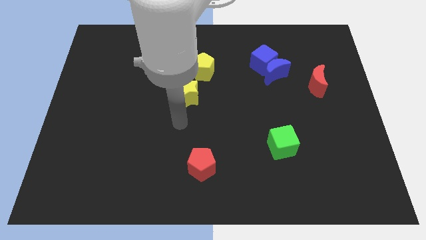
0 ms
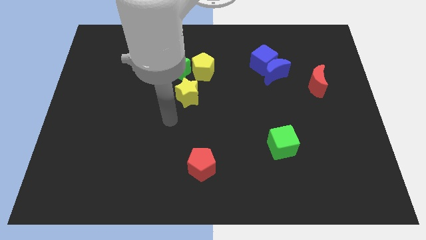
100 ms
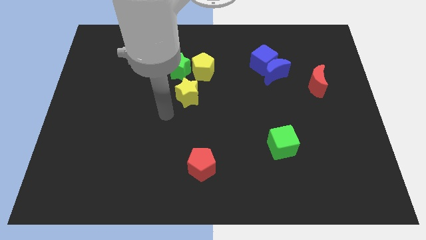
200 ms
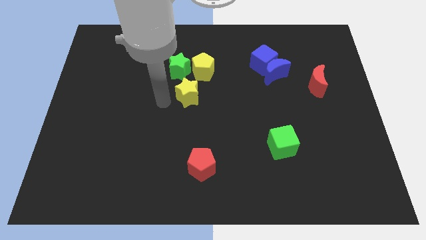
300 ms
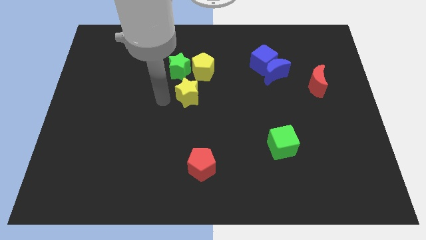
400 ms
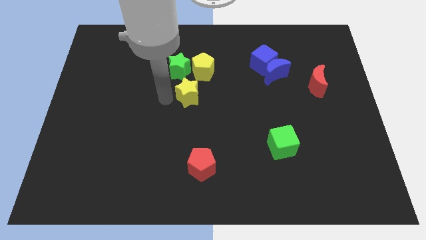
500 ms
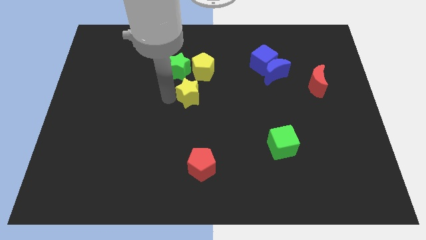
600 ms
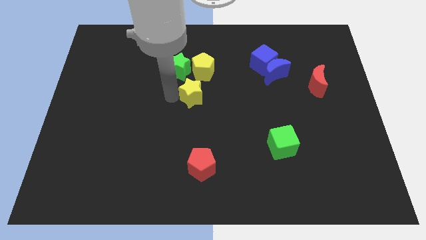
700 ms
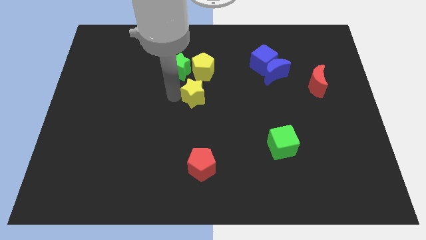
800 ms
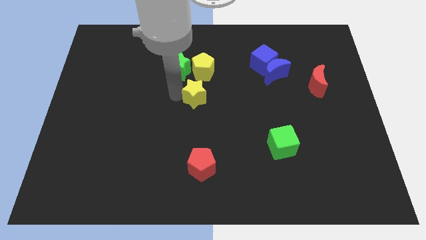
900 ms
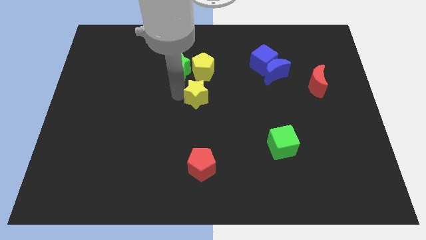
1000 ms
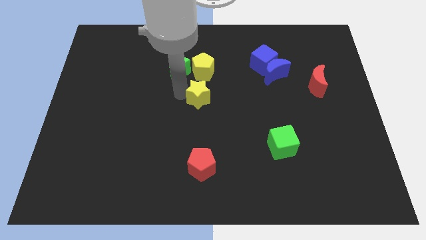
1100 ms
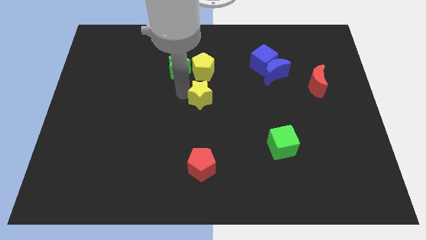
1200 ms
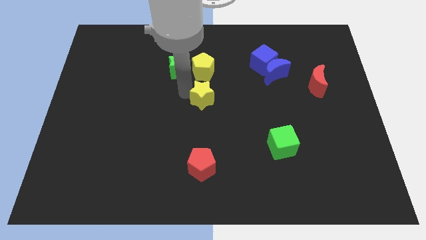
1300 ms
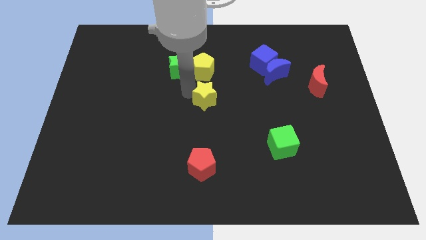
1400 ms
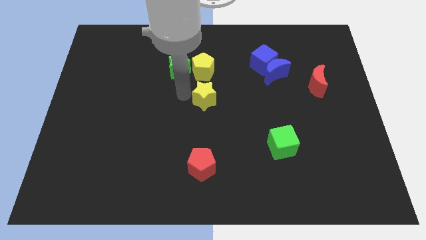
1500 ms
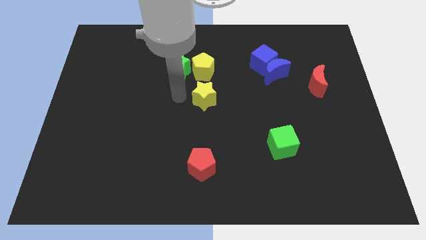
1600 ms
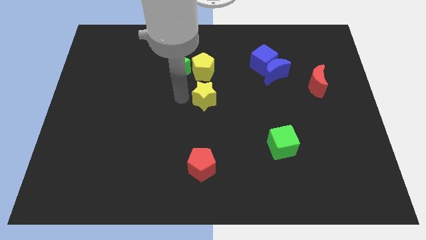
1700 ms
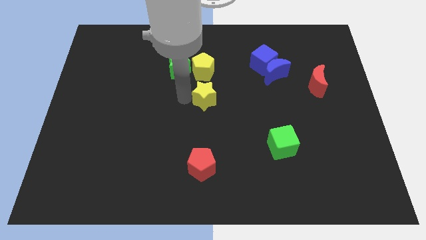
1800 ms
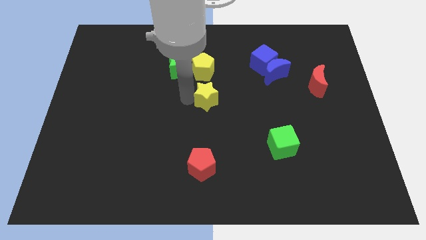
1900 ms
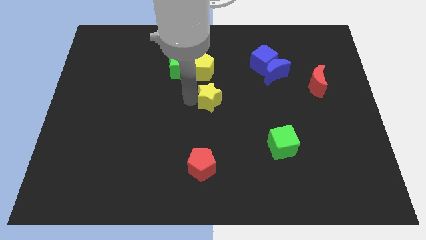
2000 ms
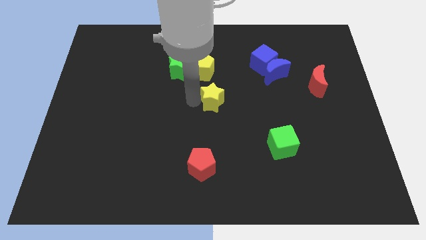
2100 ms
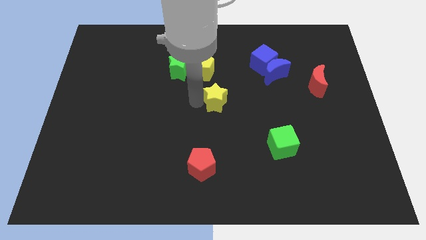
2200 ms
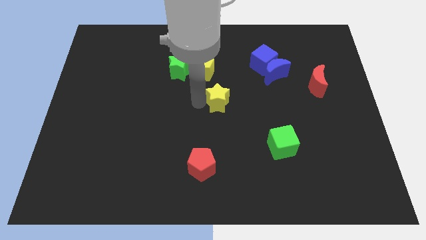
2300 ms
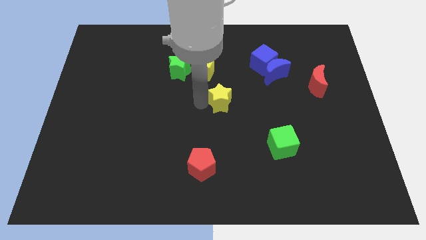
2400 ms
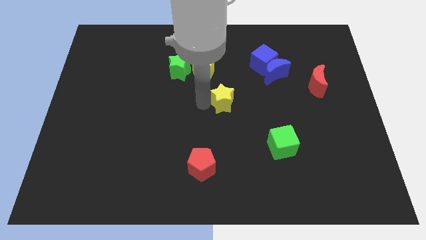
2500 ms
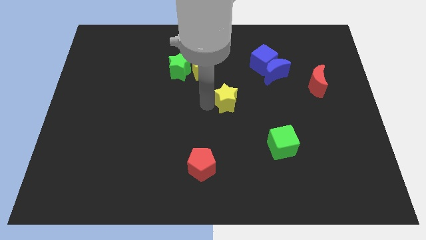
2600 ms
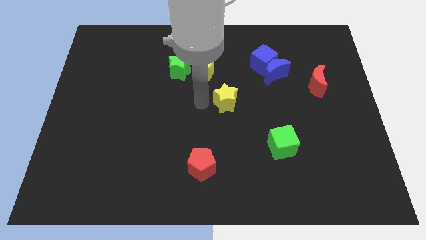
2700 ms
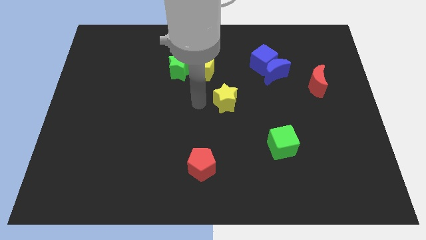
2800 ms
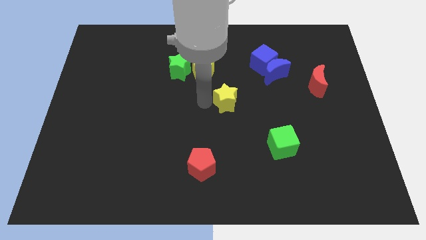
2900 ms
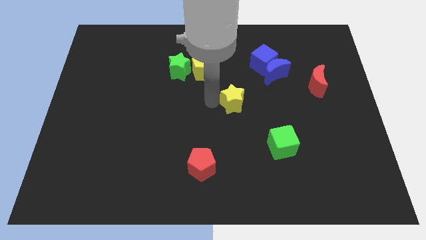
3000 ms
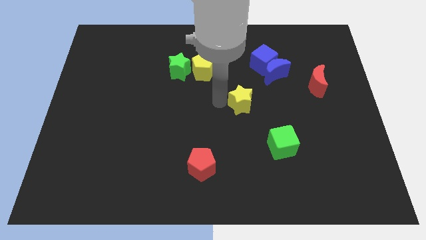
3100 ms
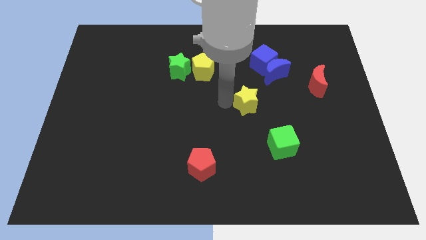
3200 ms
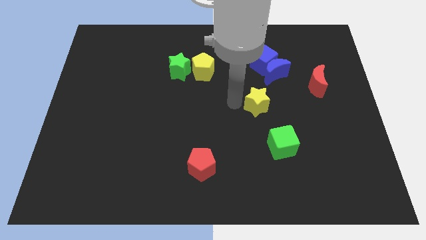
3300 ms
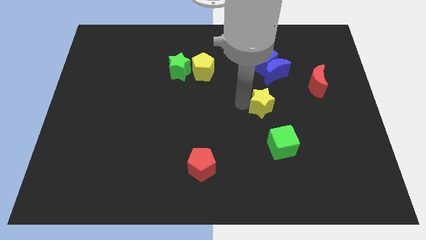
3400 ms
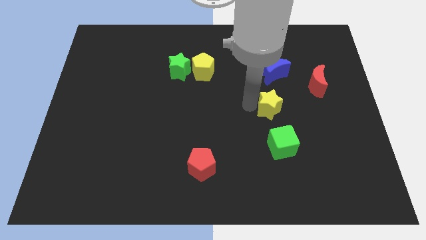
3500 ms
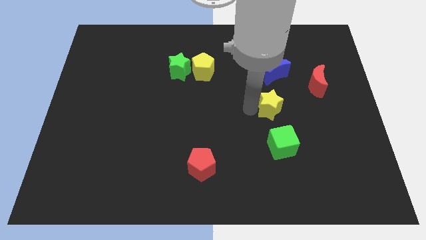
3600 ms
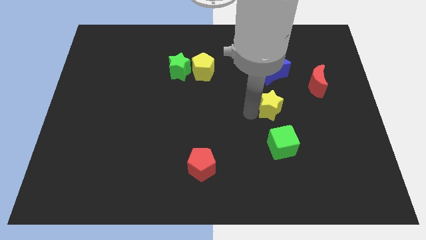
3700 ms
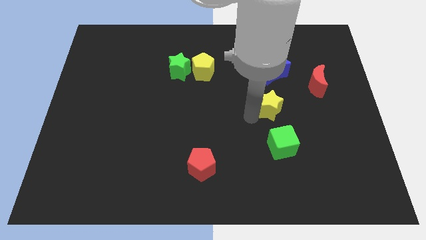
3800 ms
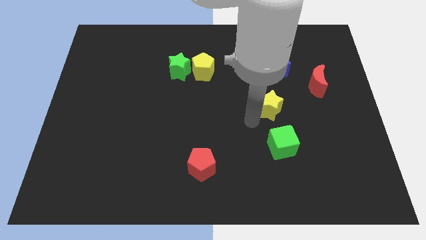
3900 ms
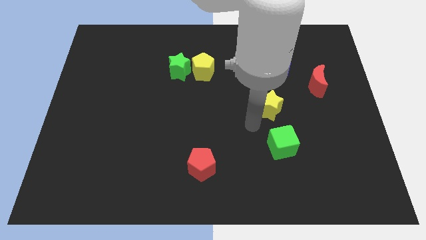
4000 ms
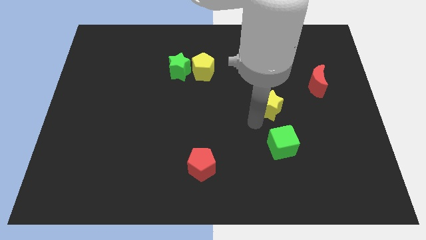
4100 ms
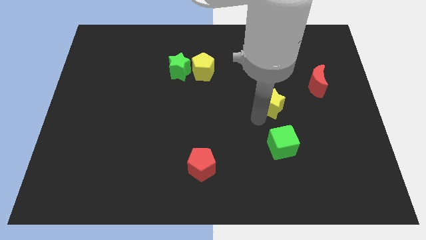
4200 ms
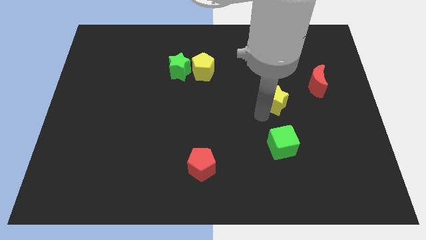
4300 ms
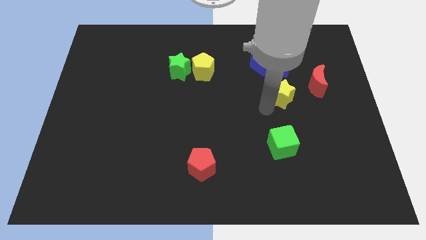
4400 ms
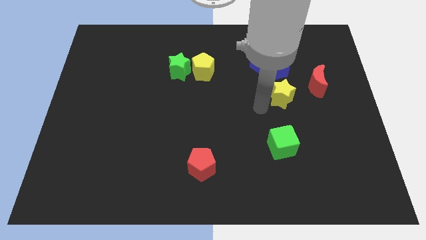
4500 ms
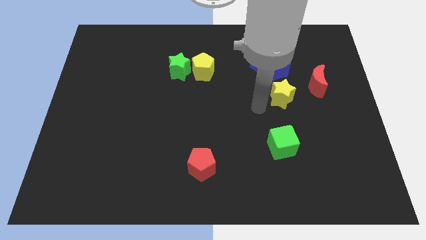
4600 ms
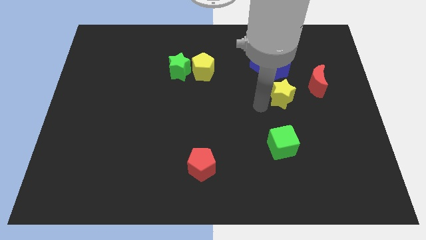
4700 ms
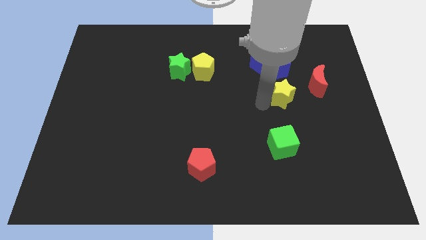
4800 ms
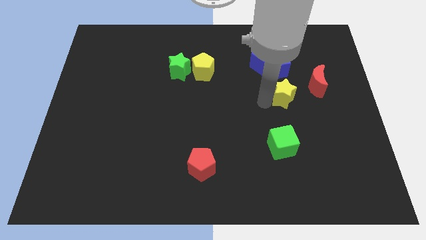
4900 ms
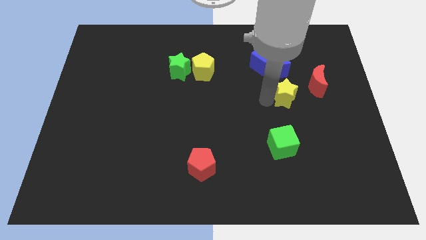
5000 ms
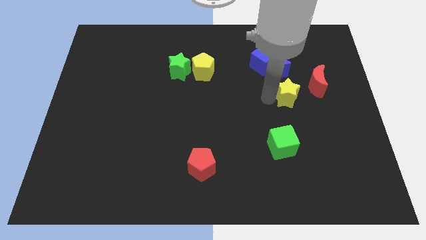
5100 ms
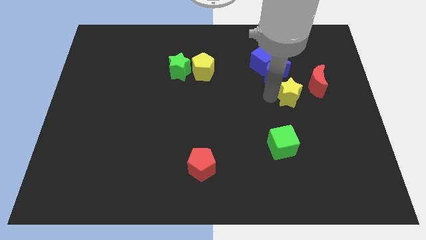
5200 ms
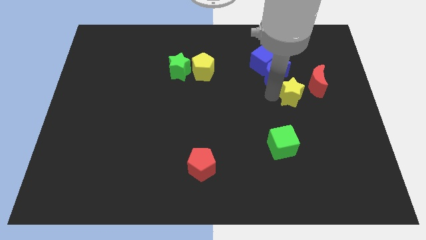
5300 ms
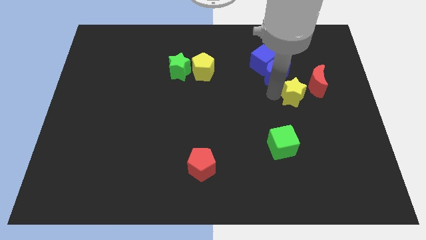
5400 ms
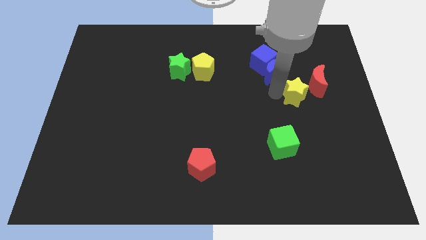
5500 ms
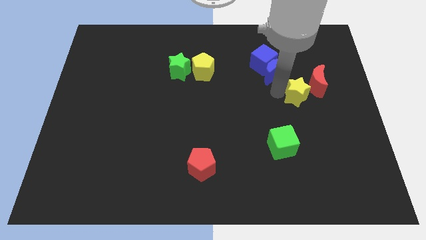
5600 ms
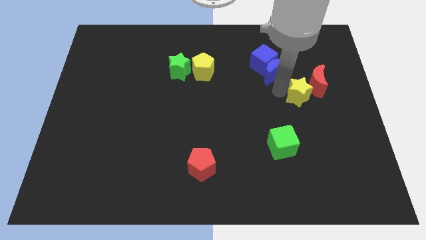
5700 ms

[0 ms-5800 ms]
put the yellow star towards the red moon
